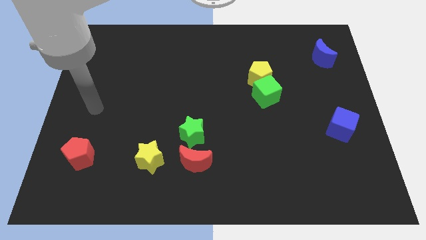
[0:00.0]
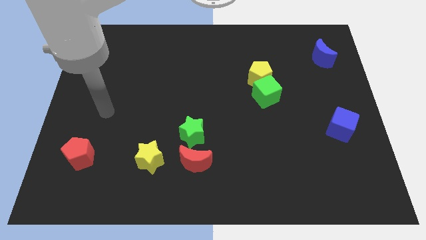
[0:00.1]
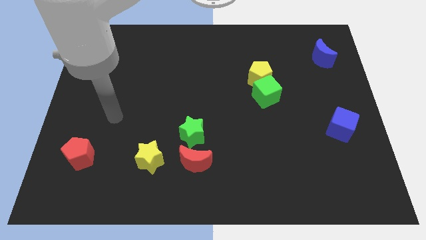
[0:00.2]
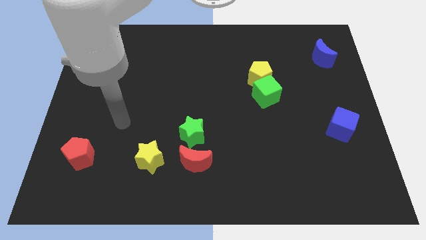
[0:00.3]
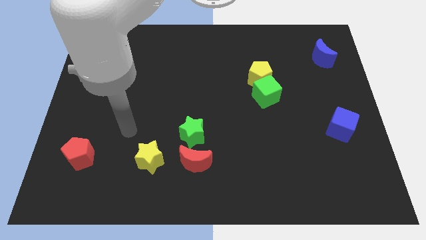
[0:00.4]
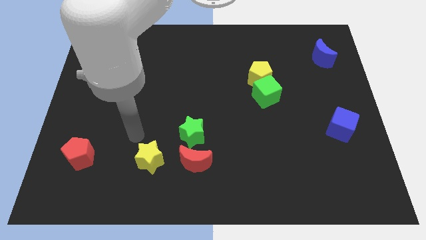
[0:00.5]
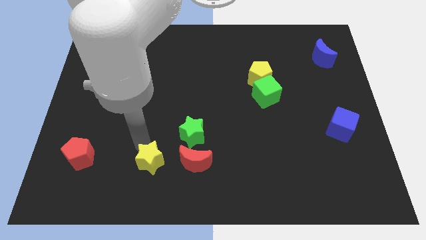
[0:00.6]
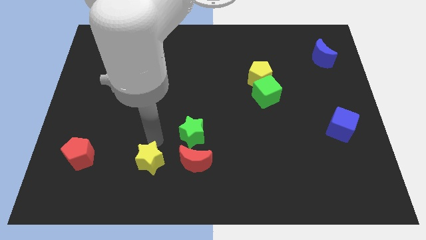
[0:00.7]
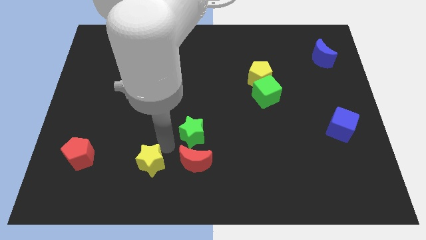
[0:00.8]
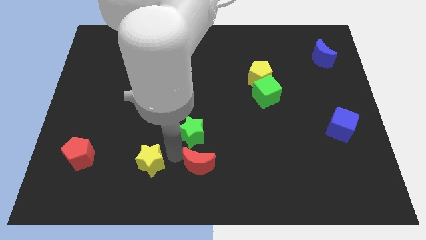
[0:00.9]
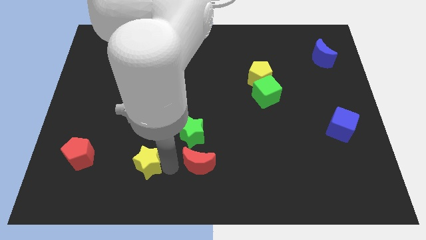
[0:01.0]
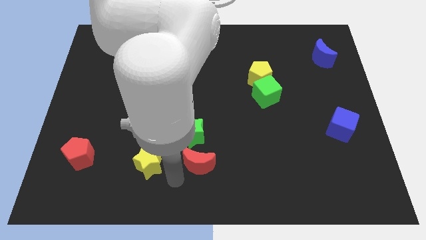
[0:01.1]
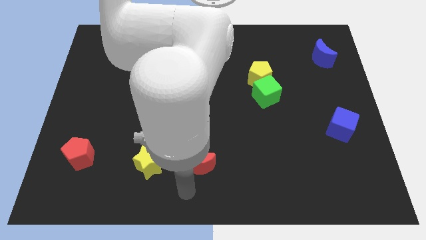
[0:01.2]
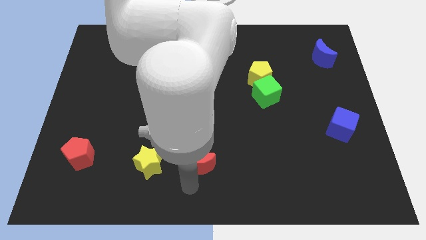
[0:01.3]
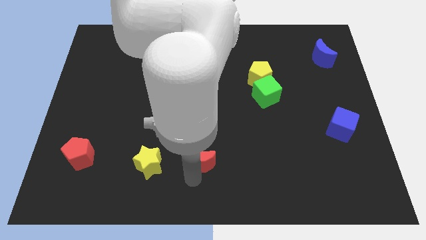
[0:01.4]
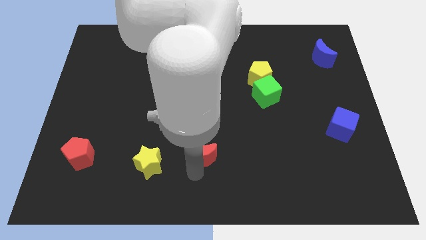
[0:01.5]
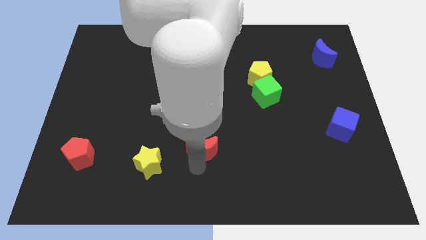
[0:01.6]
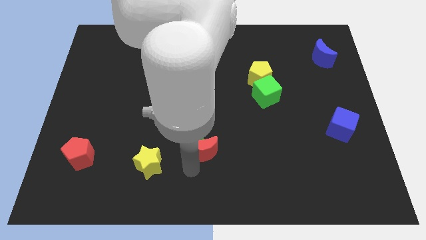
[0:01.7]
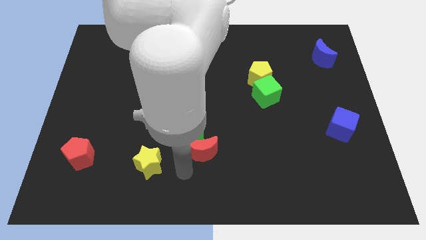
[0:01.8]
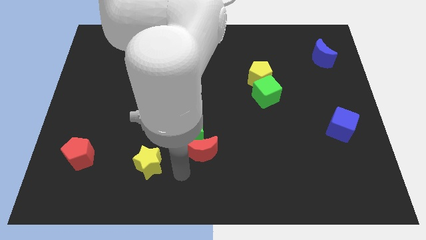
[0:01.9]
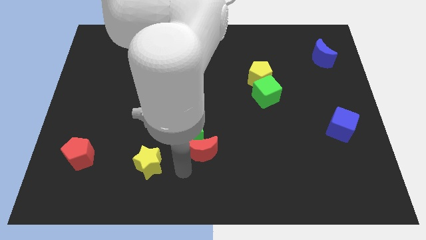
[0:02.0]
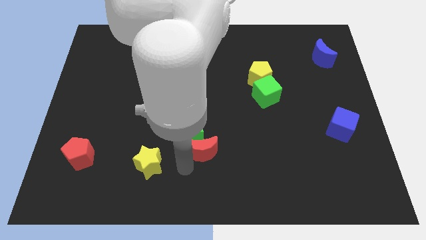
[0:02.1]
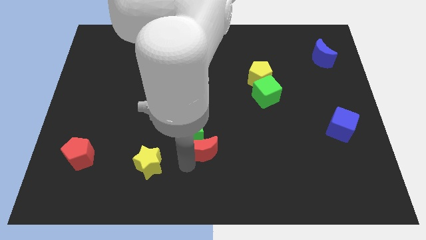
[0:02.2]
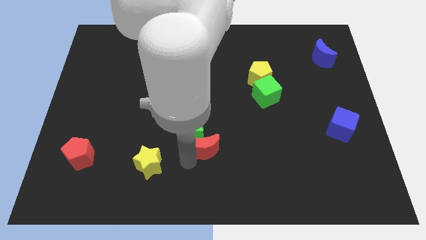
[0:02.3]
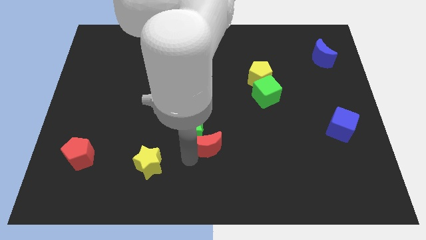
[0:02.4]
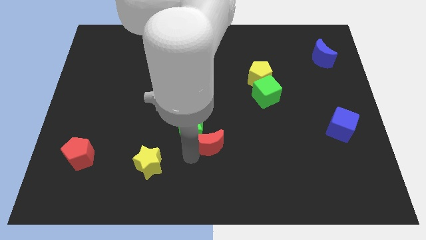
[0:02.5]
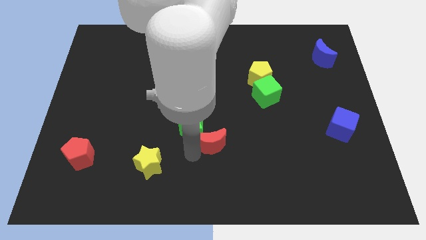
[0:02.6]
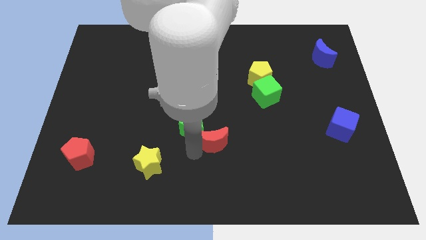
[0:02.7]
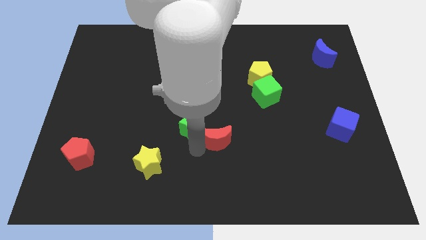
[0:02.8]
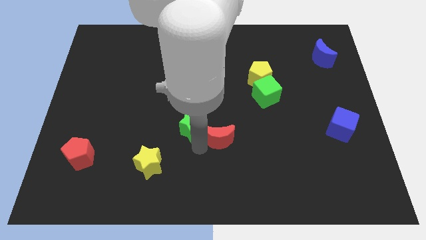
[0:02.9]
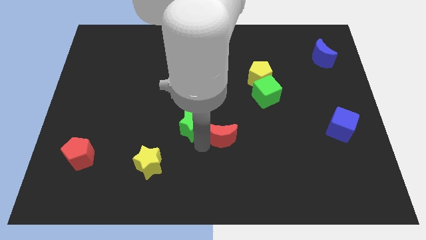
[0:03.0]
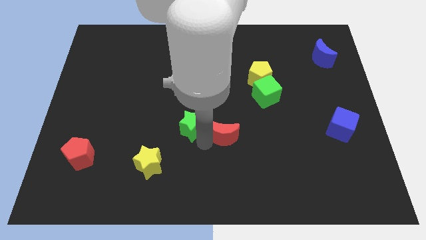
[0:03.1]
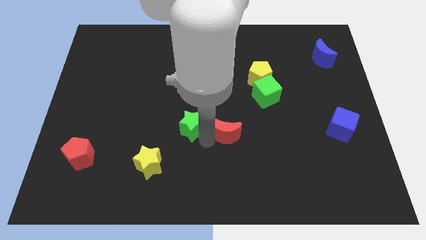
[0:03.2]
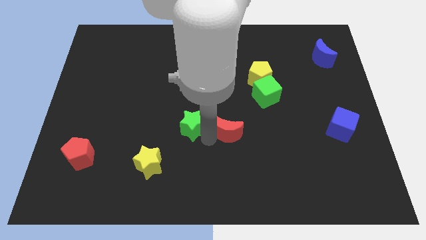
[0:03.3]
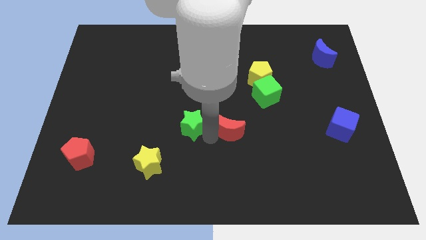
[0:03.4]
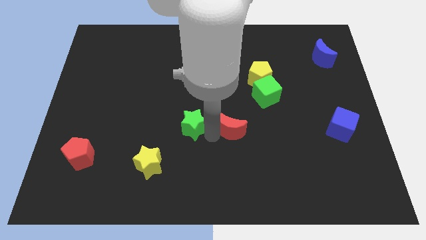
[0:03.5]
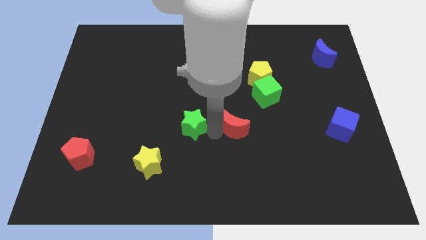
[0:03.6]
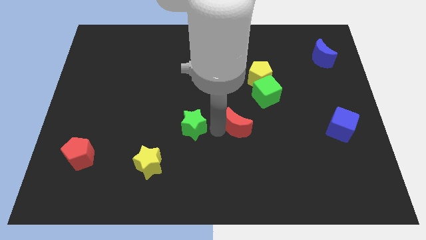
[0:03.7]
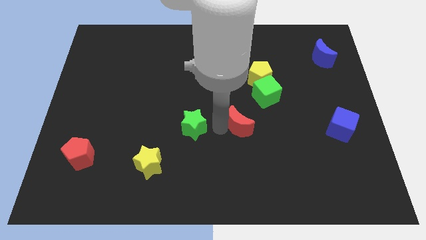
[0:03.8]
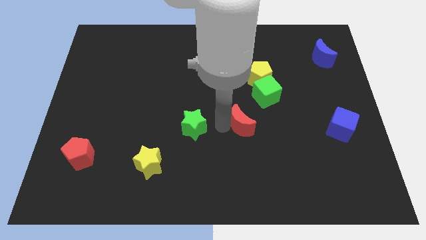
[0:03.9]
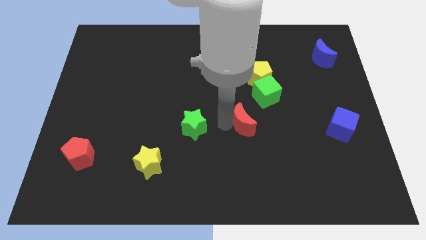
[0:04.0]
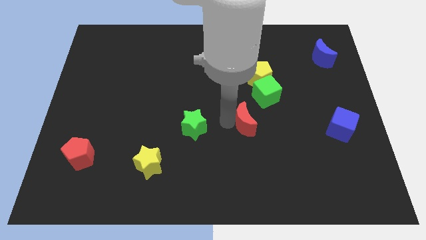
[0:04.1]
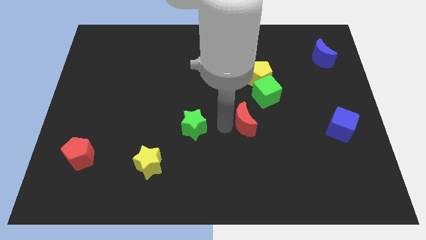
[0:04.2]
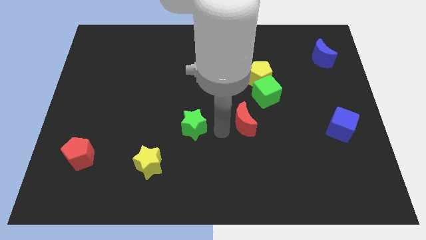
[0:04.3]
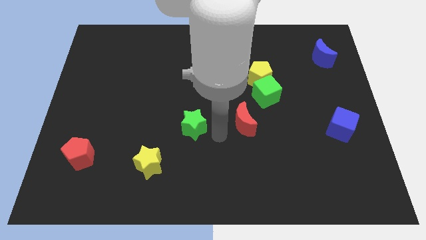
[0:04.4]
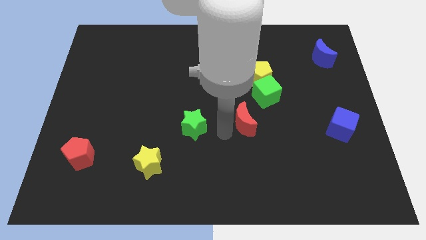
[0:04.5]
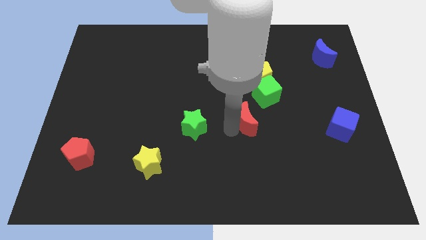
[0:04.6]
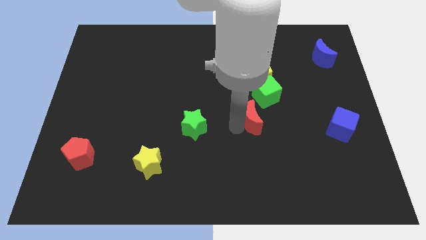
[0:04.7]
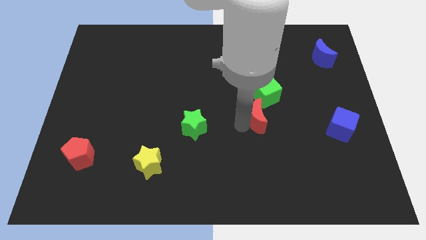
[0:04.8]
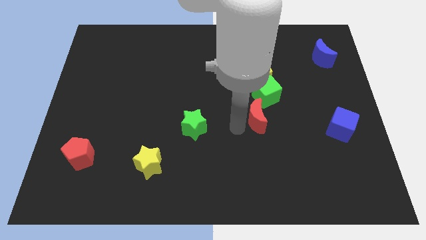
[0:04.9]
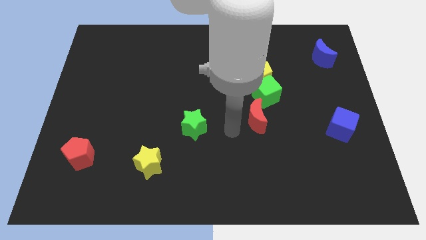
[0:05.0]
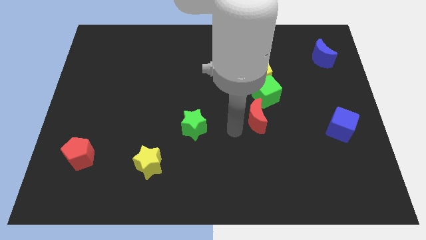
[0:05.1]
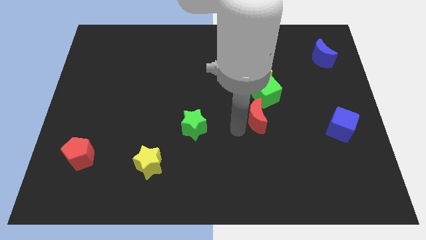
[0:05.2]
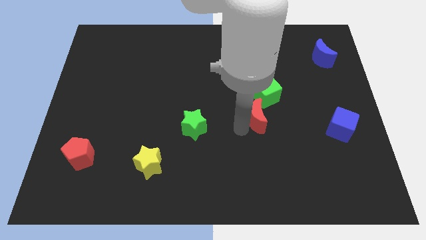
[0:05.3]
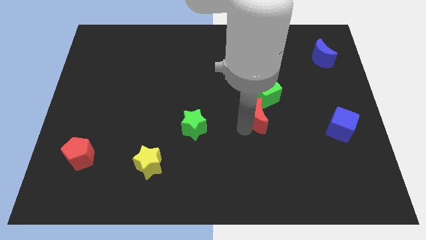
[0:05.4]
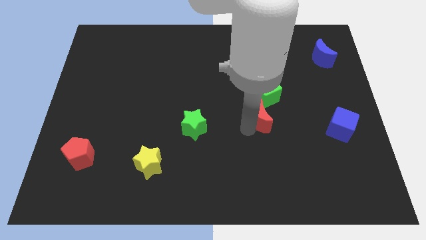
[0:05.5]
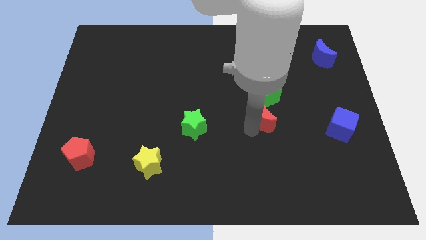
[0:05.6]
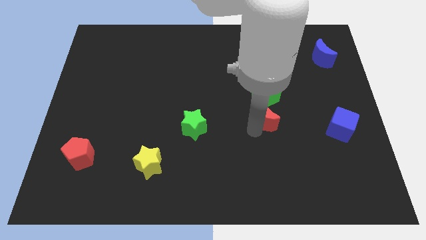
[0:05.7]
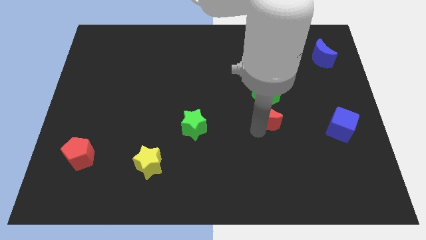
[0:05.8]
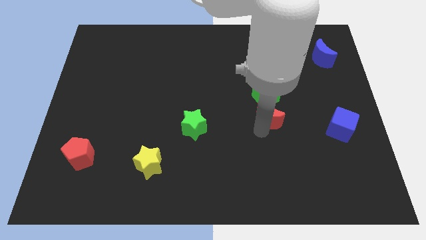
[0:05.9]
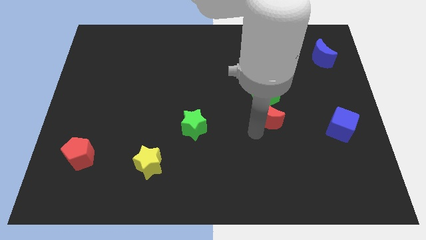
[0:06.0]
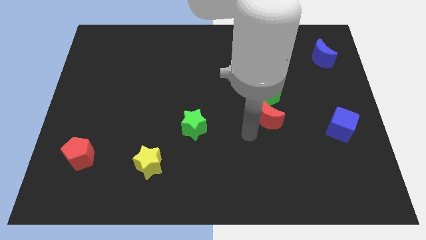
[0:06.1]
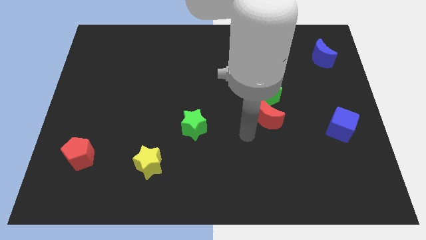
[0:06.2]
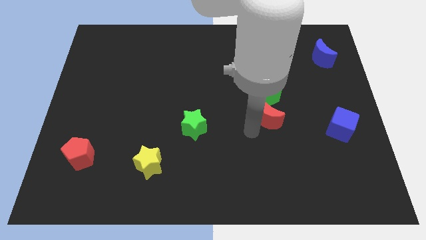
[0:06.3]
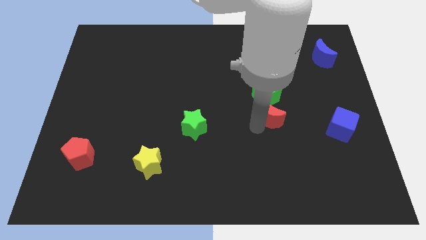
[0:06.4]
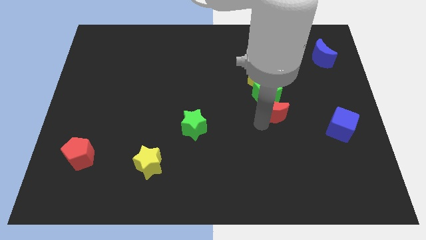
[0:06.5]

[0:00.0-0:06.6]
slide the red moon diagonally upwards and to the right

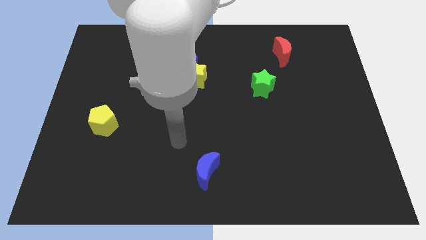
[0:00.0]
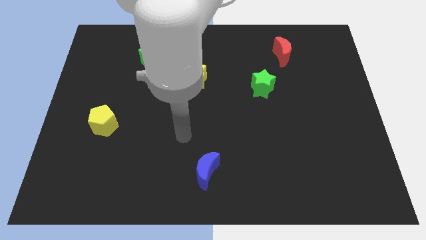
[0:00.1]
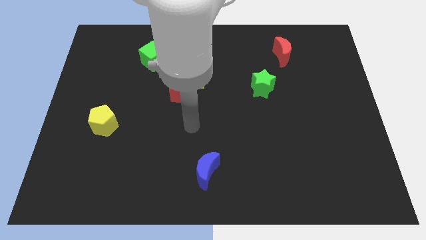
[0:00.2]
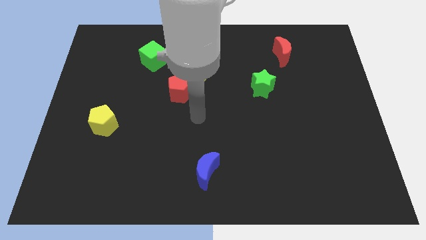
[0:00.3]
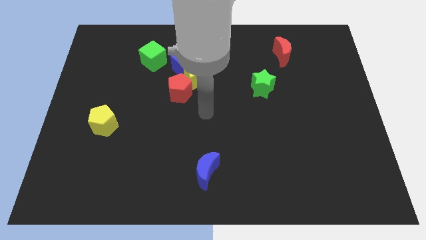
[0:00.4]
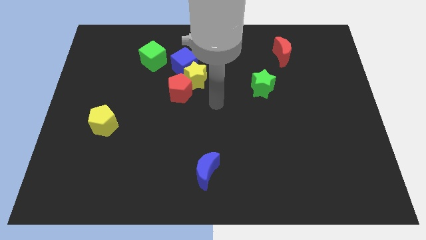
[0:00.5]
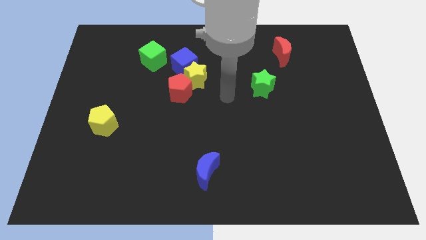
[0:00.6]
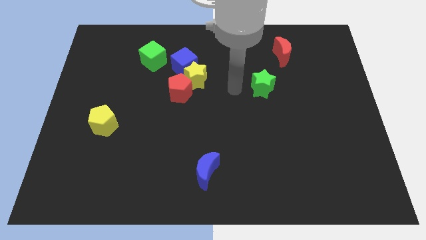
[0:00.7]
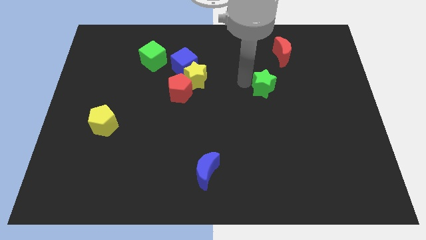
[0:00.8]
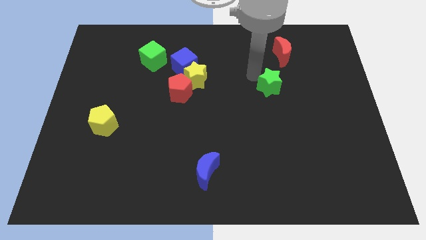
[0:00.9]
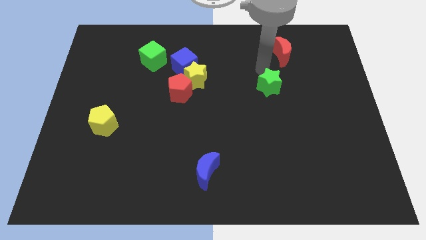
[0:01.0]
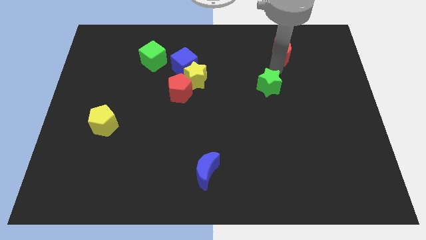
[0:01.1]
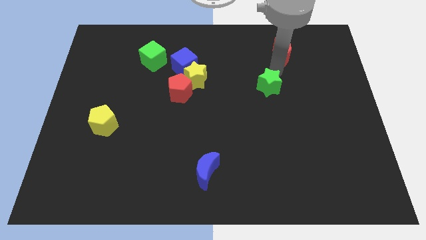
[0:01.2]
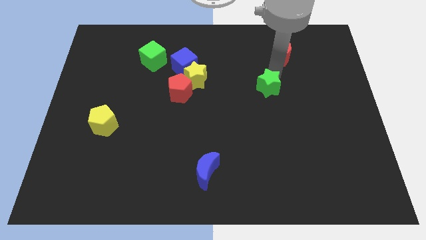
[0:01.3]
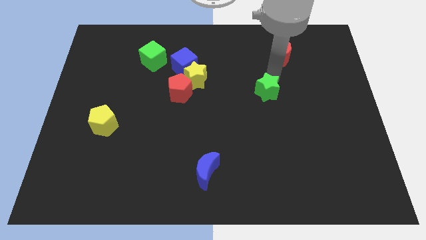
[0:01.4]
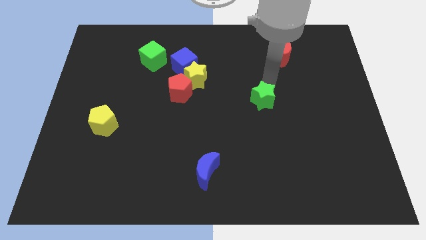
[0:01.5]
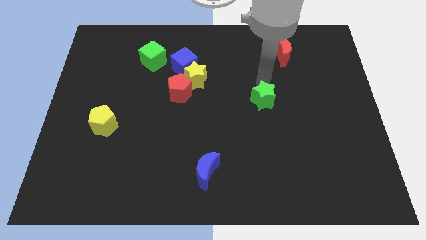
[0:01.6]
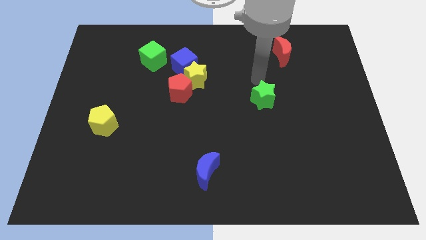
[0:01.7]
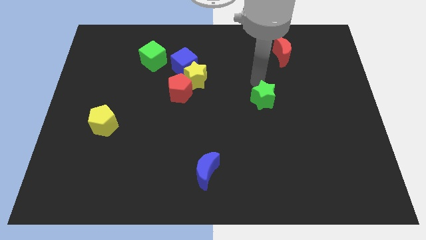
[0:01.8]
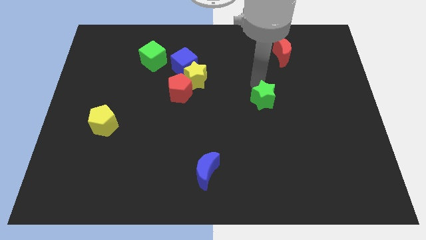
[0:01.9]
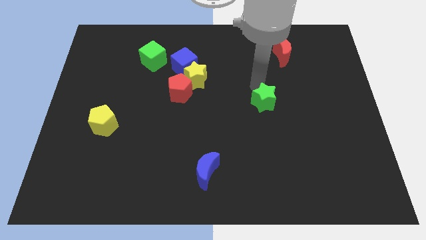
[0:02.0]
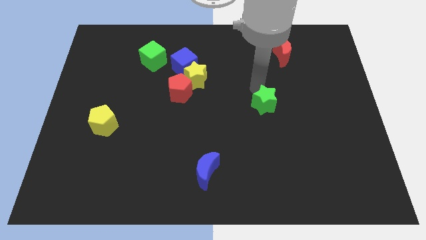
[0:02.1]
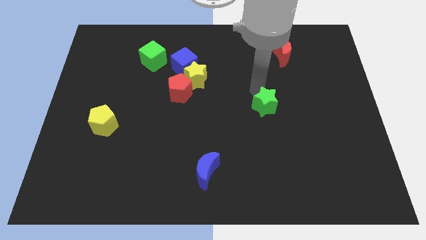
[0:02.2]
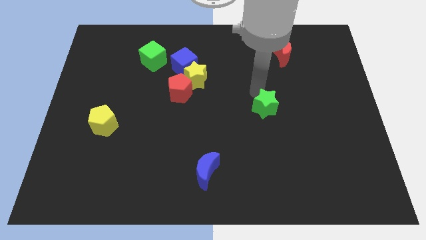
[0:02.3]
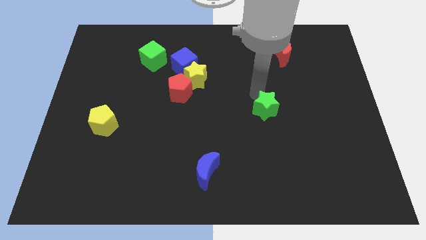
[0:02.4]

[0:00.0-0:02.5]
move the green star downwards somewhat
